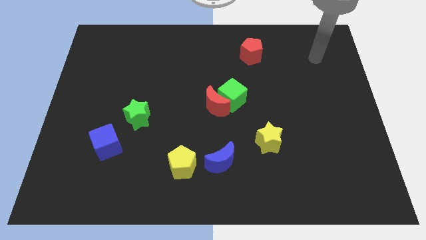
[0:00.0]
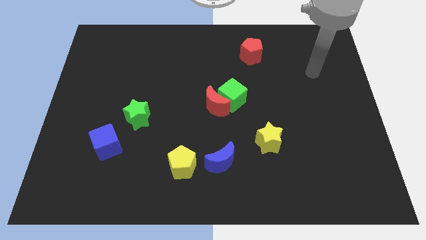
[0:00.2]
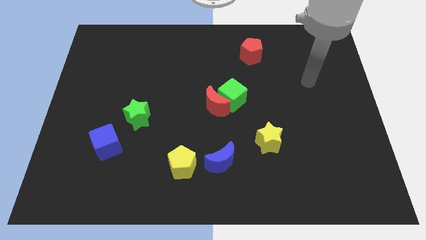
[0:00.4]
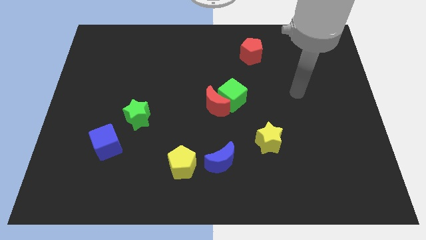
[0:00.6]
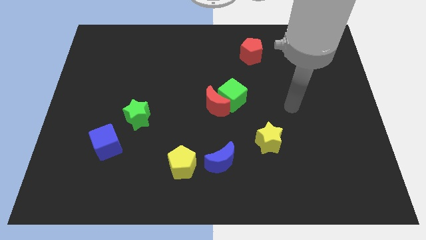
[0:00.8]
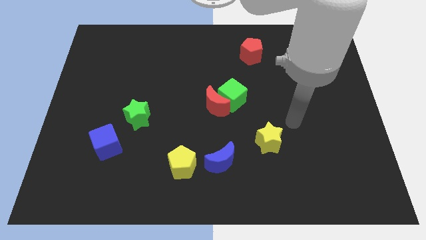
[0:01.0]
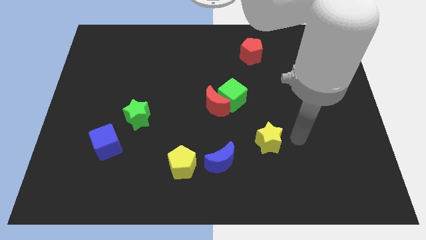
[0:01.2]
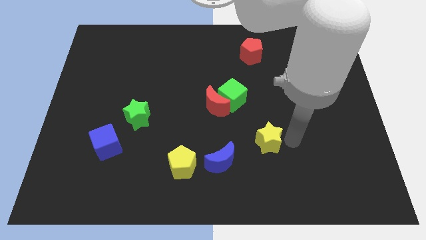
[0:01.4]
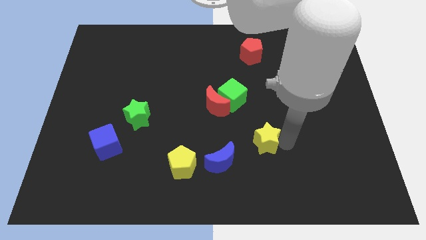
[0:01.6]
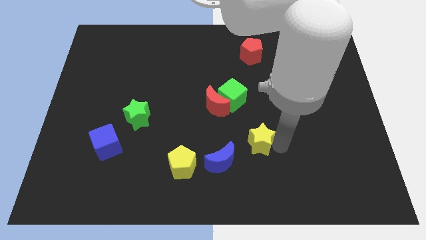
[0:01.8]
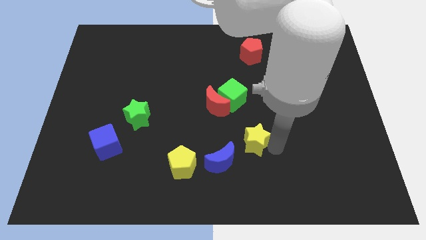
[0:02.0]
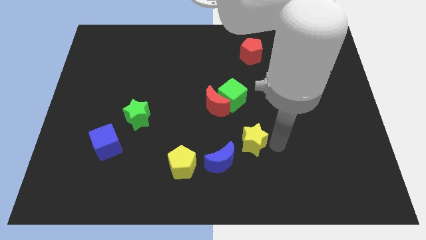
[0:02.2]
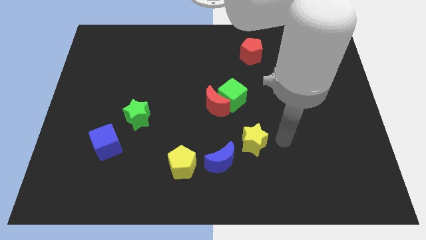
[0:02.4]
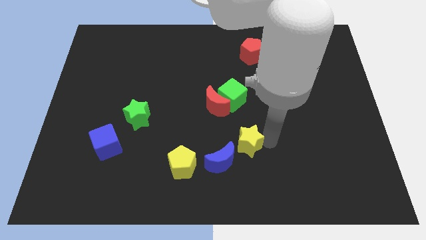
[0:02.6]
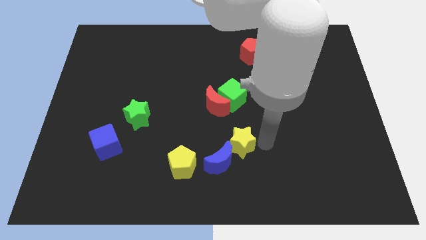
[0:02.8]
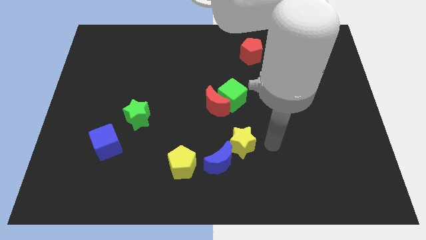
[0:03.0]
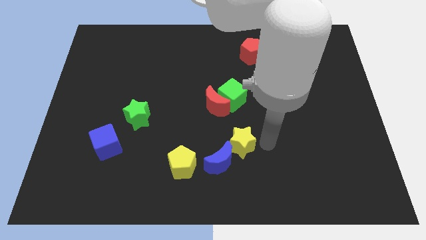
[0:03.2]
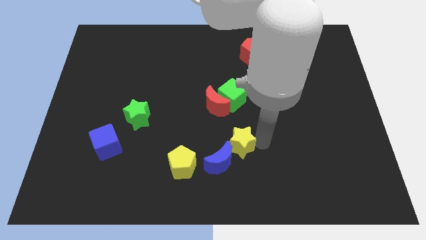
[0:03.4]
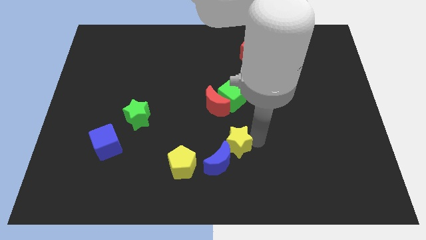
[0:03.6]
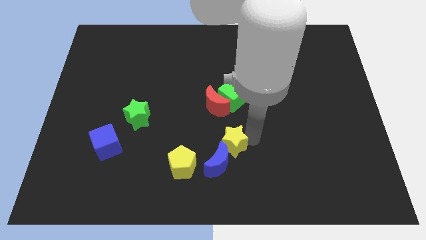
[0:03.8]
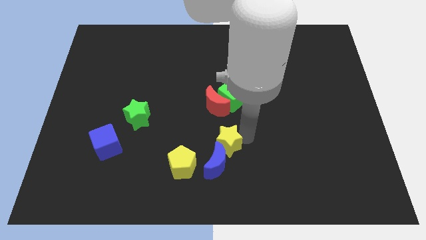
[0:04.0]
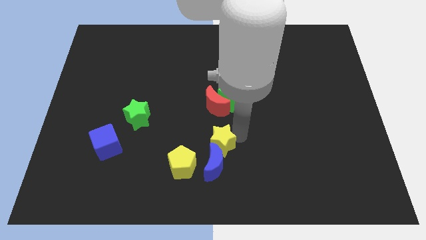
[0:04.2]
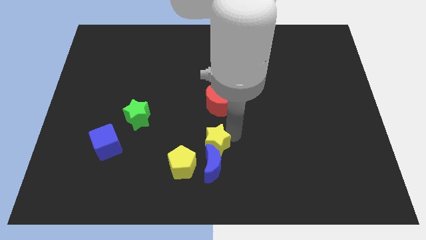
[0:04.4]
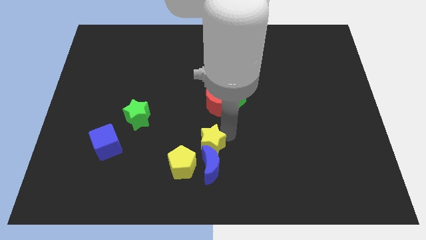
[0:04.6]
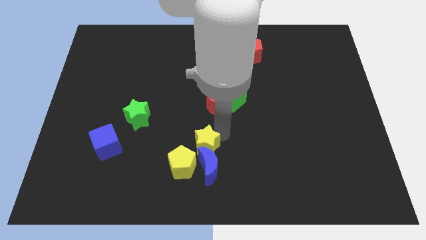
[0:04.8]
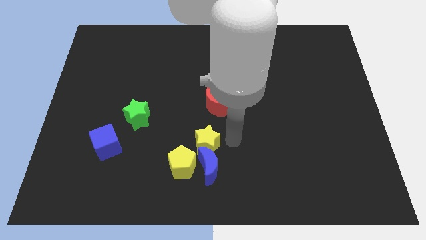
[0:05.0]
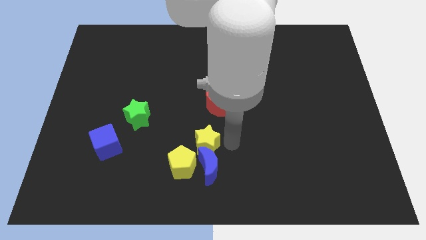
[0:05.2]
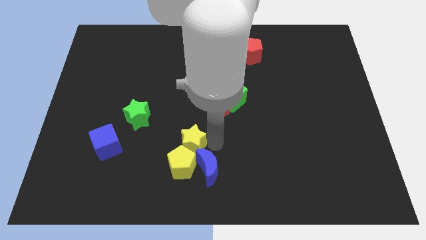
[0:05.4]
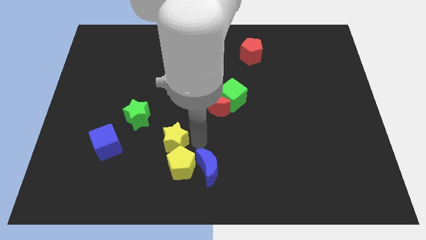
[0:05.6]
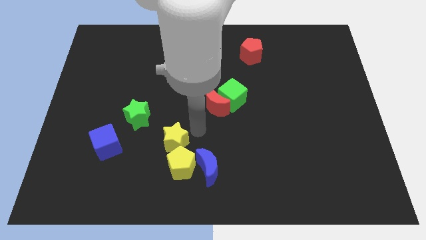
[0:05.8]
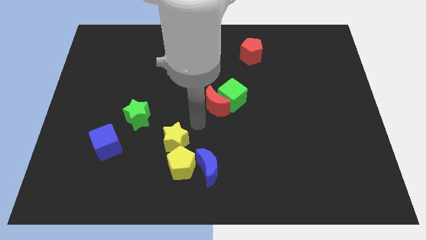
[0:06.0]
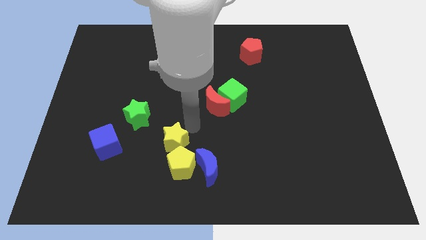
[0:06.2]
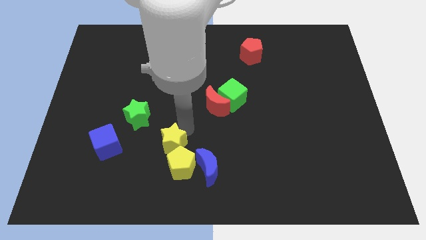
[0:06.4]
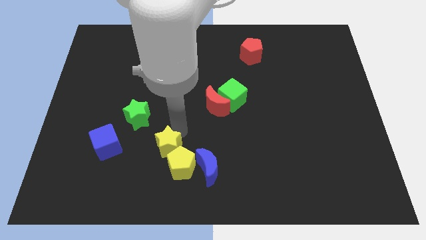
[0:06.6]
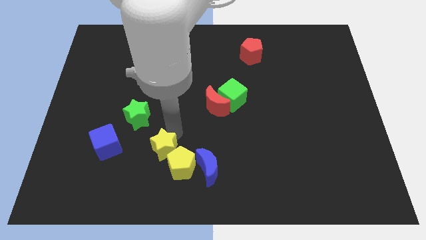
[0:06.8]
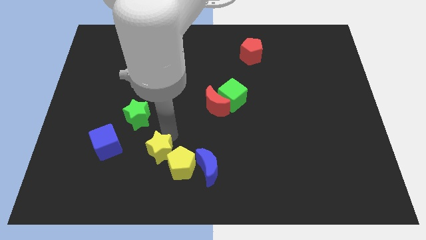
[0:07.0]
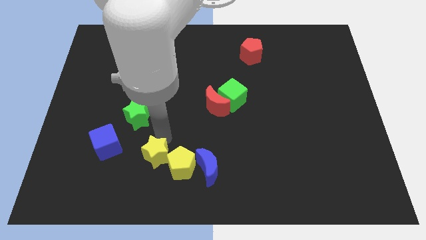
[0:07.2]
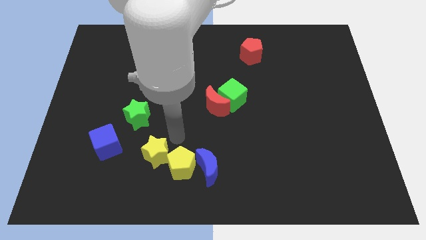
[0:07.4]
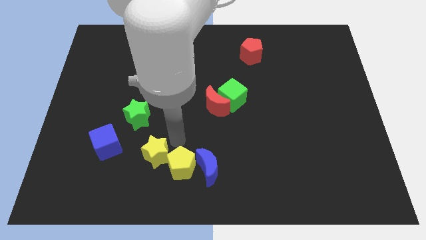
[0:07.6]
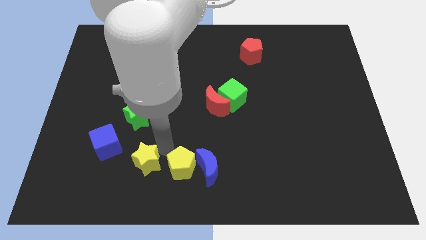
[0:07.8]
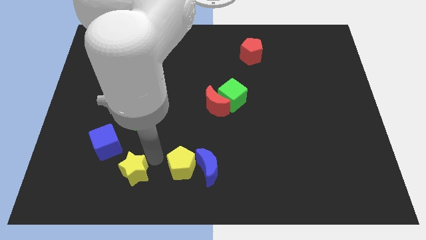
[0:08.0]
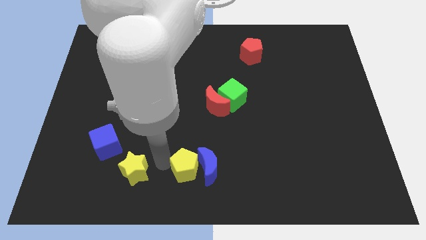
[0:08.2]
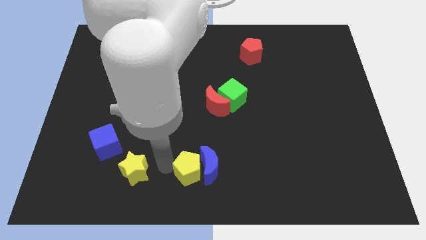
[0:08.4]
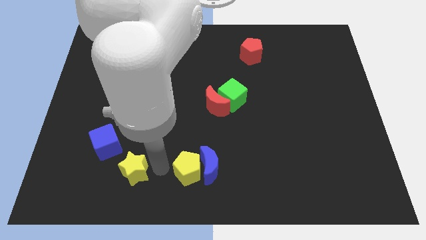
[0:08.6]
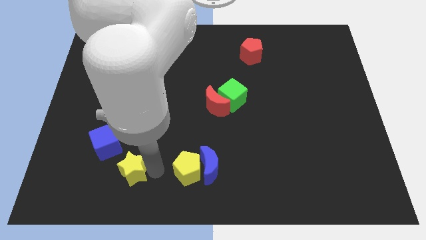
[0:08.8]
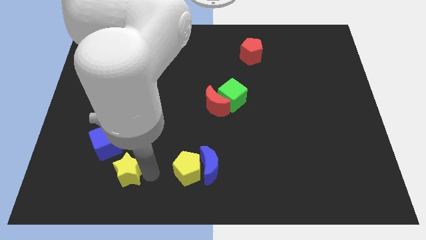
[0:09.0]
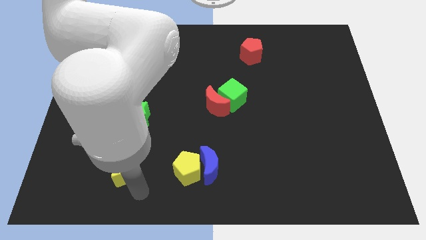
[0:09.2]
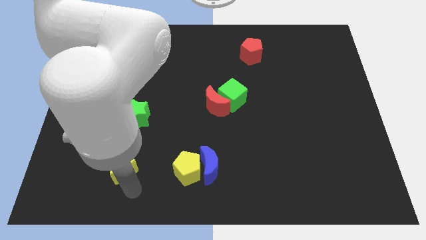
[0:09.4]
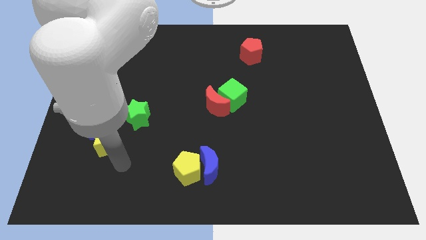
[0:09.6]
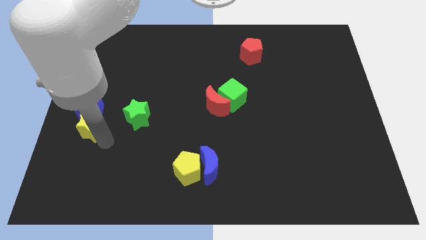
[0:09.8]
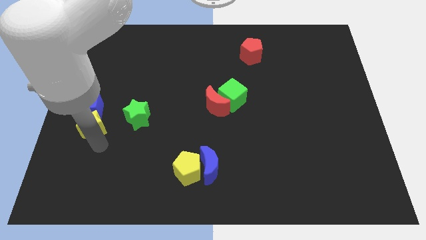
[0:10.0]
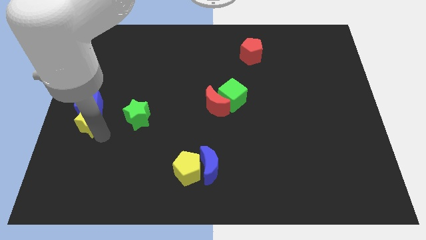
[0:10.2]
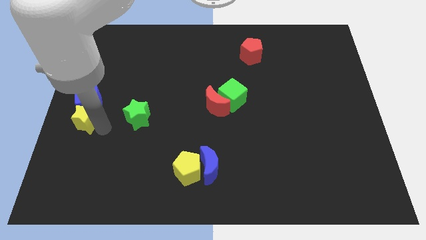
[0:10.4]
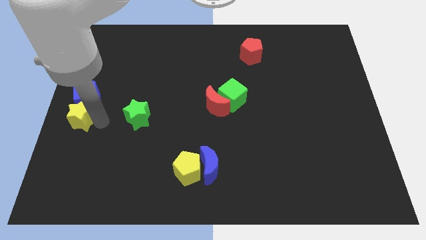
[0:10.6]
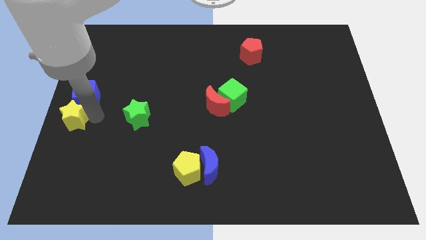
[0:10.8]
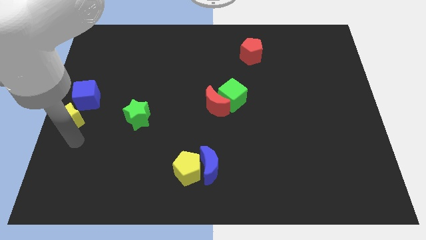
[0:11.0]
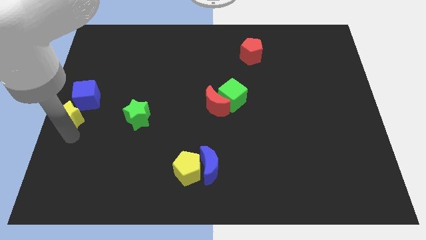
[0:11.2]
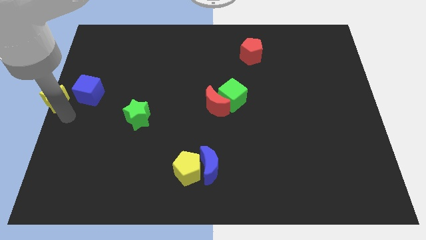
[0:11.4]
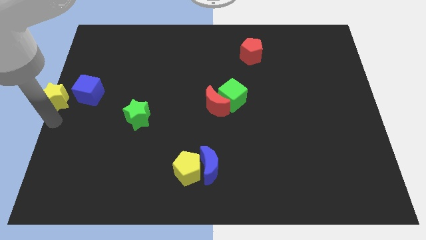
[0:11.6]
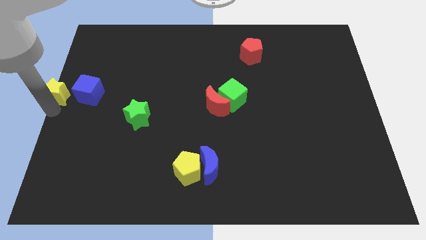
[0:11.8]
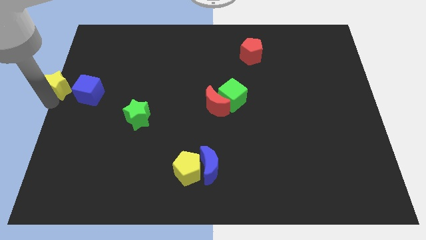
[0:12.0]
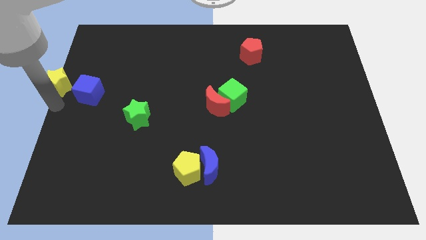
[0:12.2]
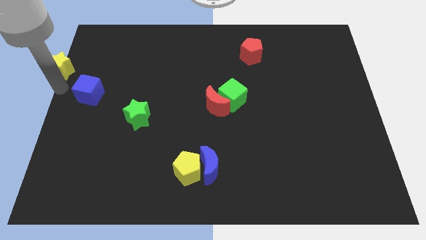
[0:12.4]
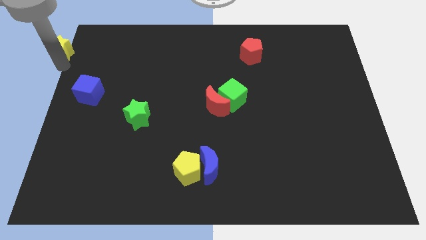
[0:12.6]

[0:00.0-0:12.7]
put the yellow star to the top left
